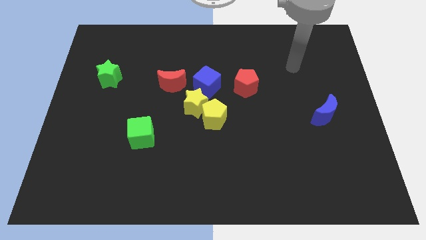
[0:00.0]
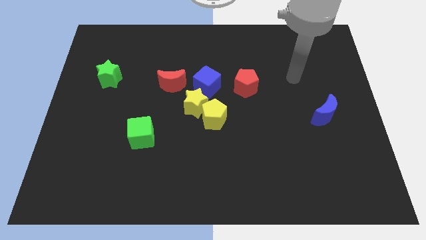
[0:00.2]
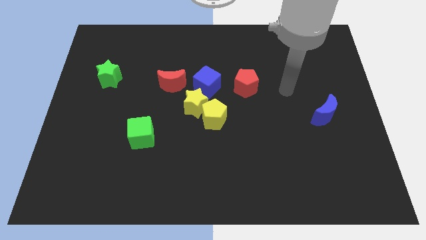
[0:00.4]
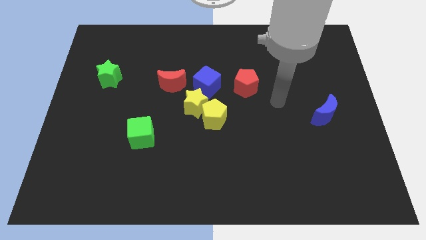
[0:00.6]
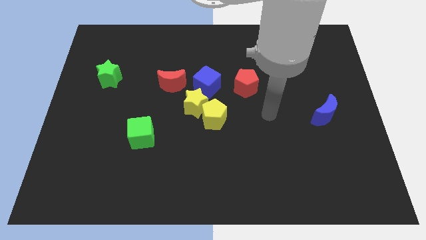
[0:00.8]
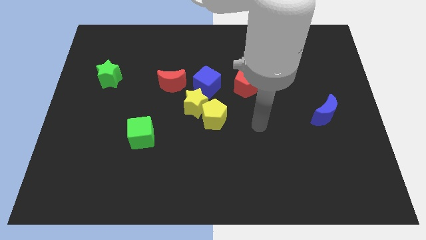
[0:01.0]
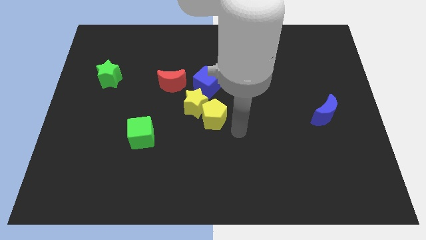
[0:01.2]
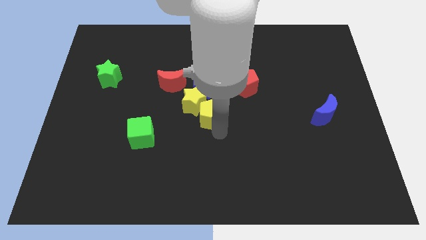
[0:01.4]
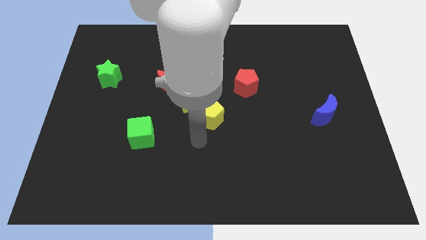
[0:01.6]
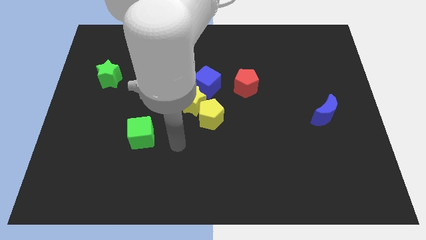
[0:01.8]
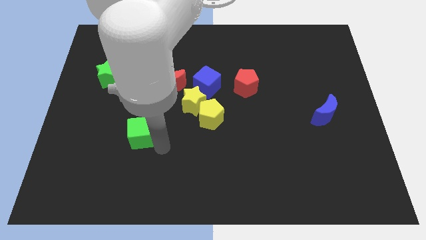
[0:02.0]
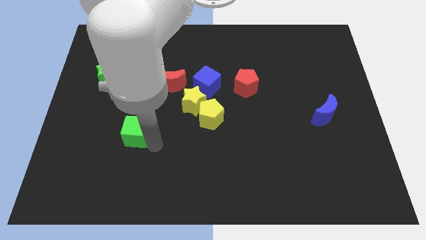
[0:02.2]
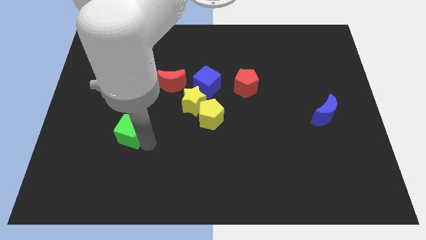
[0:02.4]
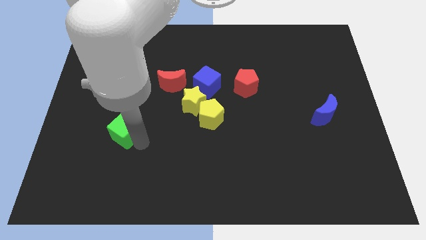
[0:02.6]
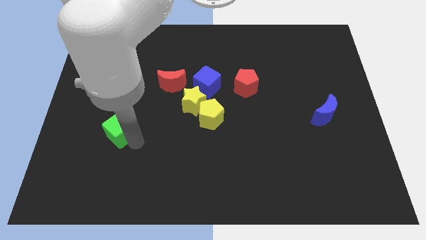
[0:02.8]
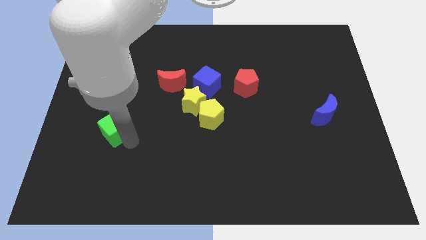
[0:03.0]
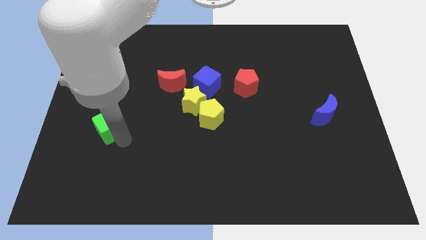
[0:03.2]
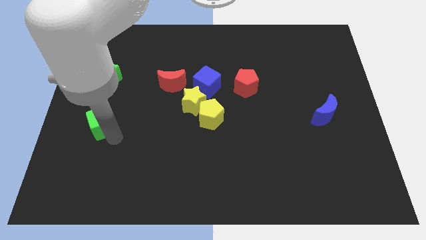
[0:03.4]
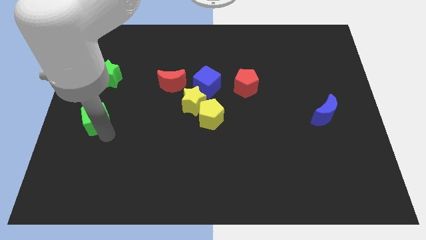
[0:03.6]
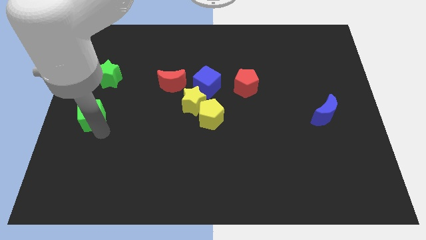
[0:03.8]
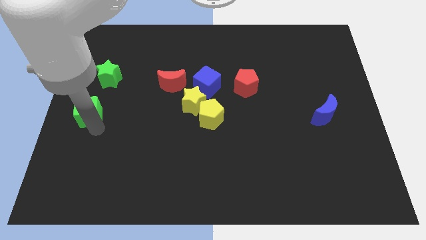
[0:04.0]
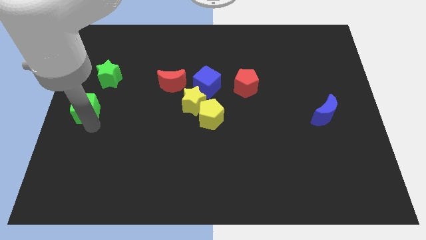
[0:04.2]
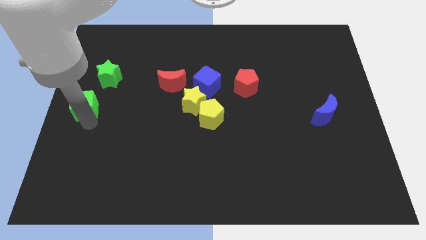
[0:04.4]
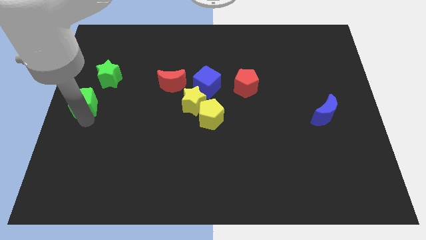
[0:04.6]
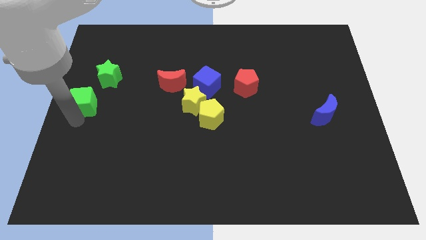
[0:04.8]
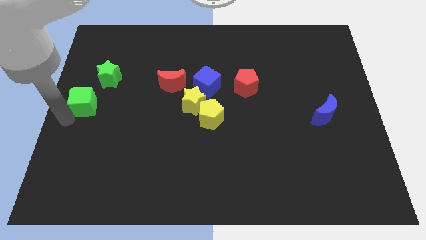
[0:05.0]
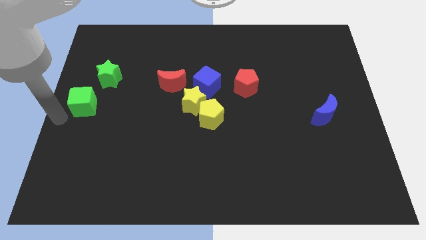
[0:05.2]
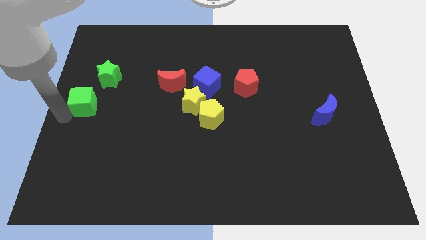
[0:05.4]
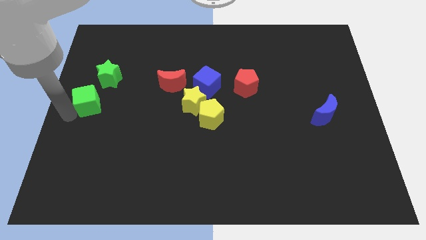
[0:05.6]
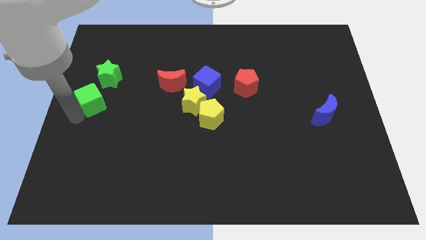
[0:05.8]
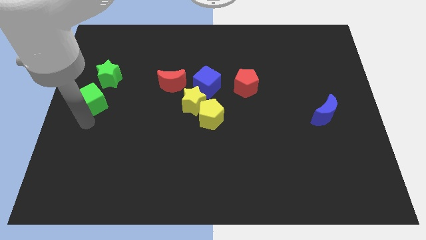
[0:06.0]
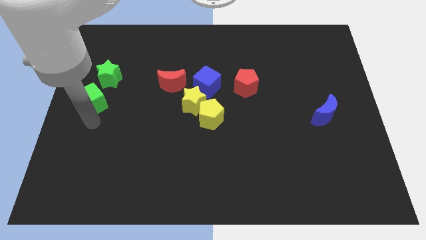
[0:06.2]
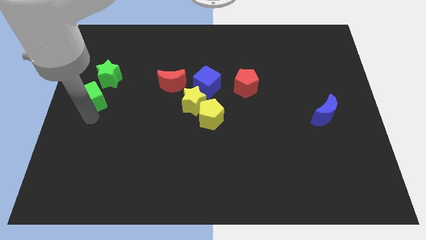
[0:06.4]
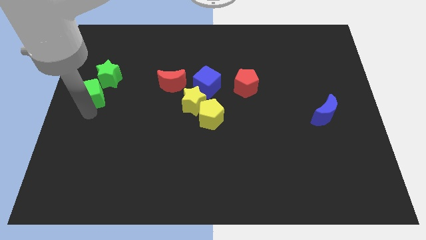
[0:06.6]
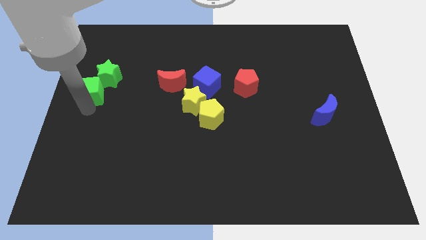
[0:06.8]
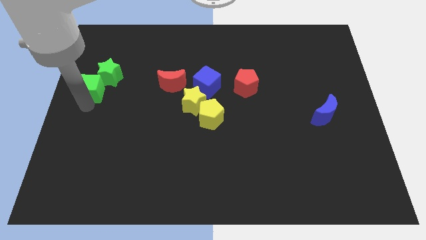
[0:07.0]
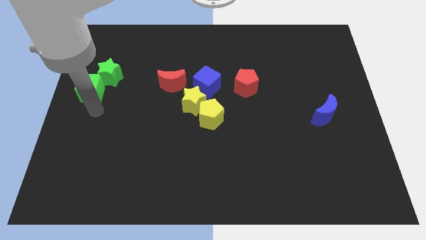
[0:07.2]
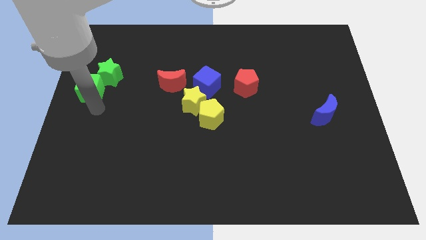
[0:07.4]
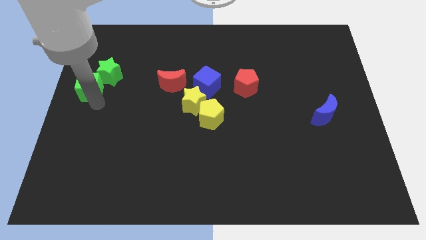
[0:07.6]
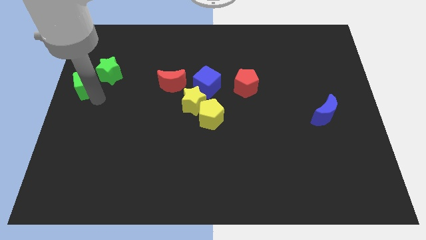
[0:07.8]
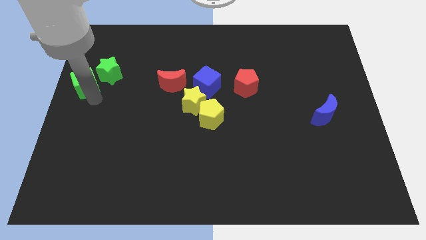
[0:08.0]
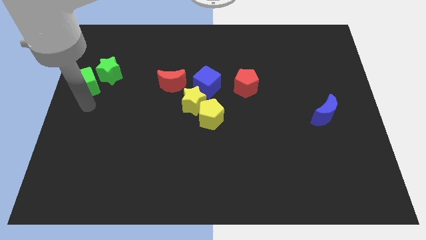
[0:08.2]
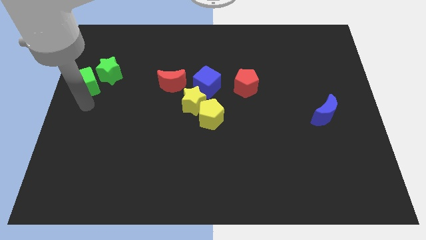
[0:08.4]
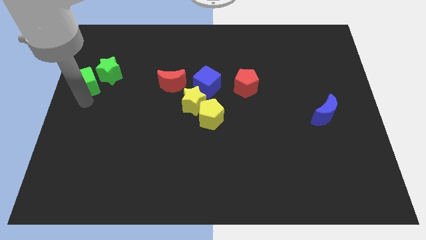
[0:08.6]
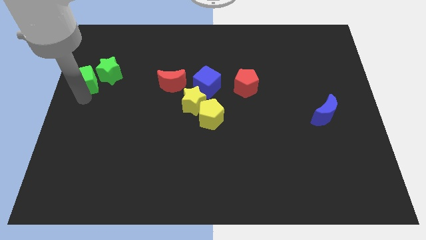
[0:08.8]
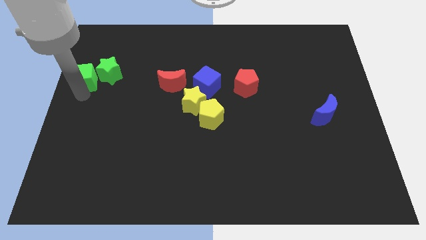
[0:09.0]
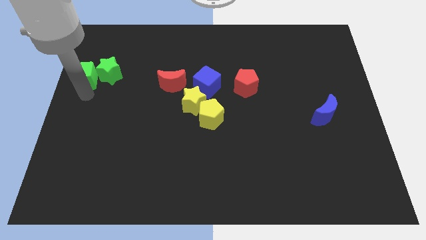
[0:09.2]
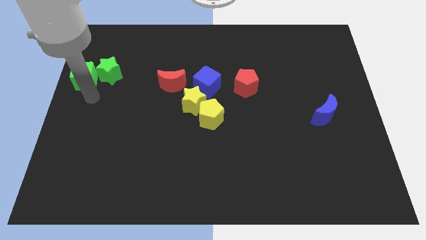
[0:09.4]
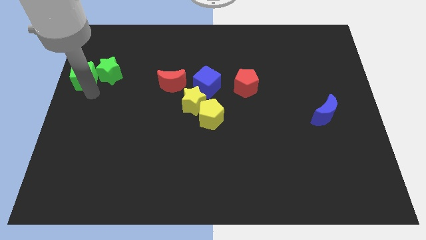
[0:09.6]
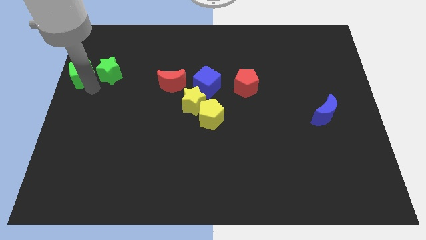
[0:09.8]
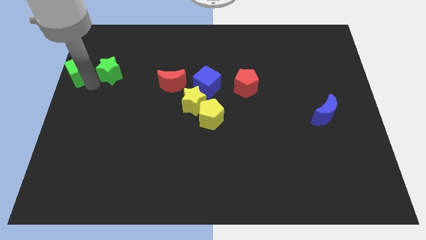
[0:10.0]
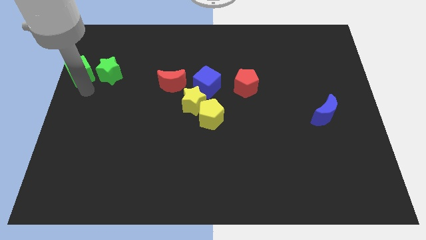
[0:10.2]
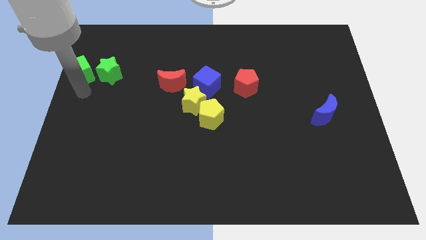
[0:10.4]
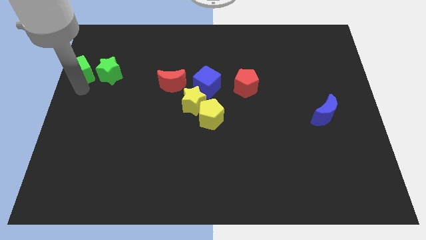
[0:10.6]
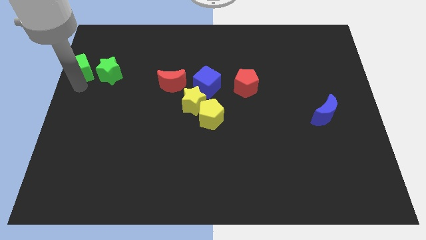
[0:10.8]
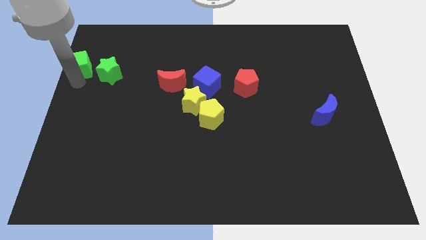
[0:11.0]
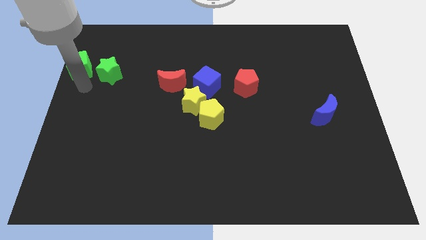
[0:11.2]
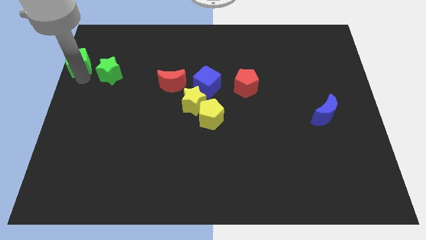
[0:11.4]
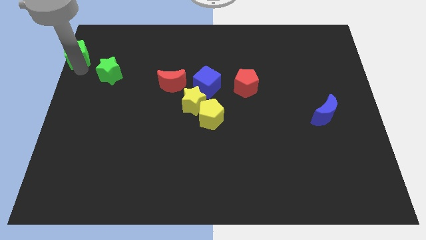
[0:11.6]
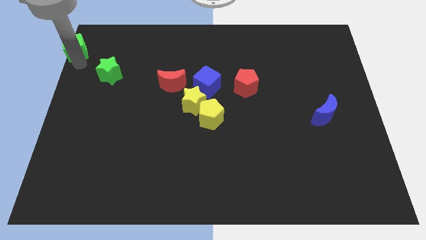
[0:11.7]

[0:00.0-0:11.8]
slide the green cube to the top left of the board
